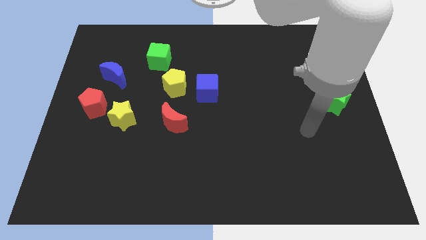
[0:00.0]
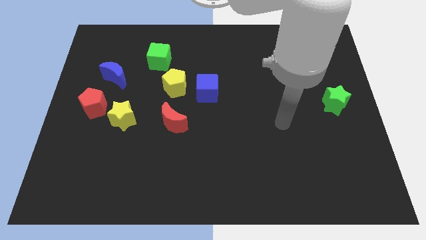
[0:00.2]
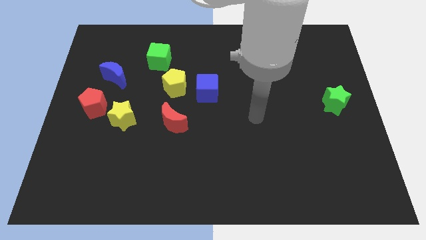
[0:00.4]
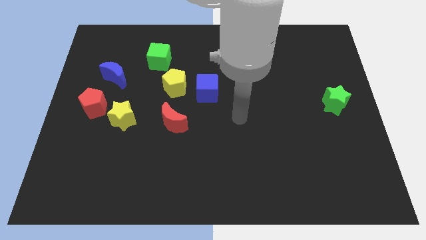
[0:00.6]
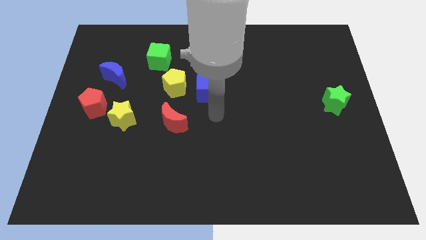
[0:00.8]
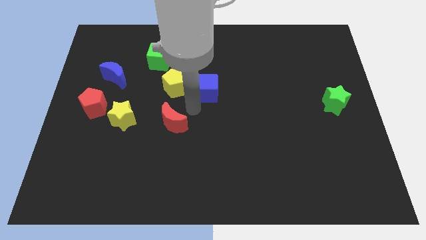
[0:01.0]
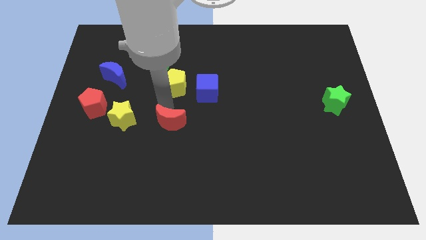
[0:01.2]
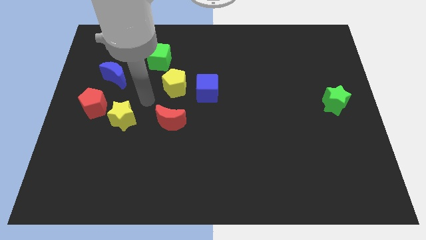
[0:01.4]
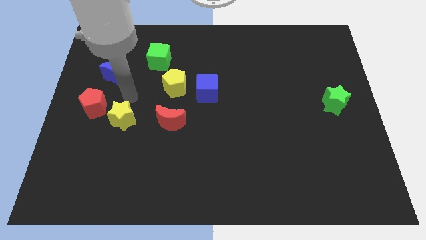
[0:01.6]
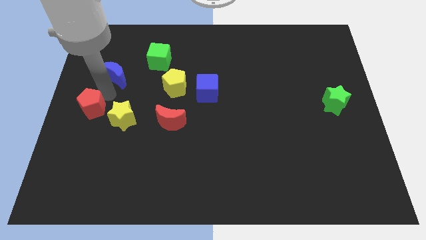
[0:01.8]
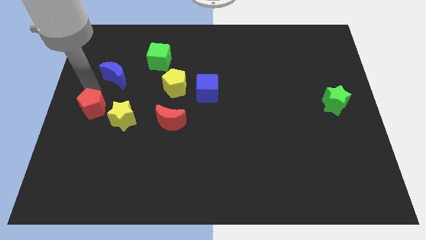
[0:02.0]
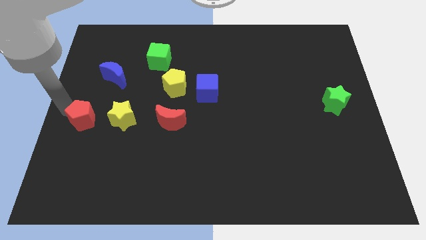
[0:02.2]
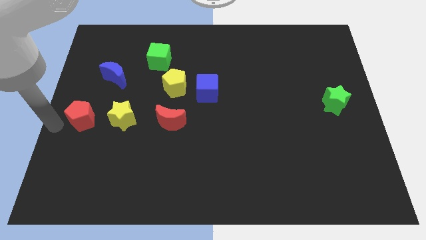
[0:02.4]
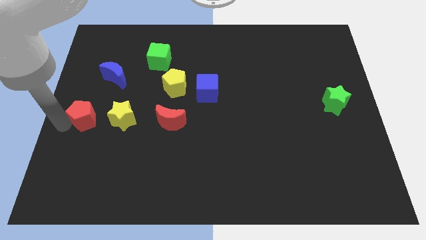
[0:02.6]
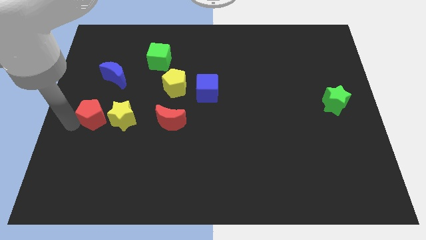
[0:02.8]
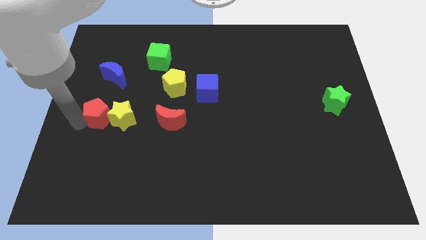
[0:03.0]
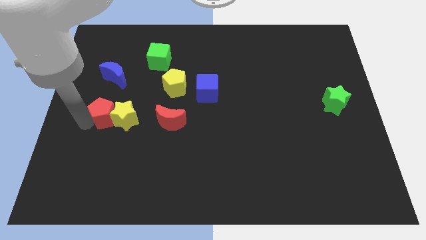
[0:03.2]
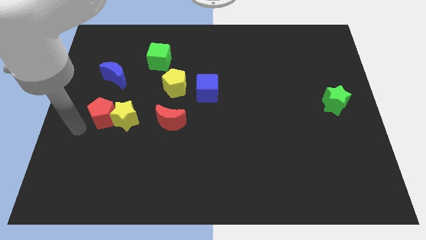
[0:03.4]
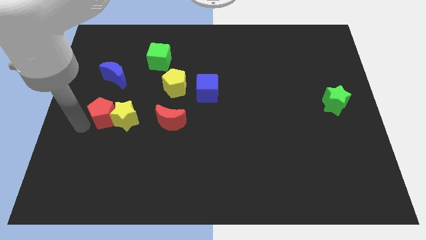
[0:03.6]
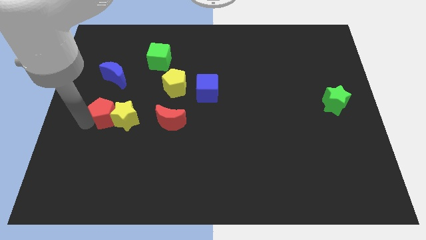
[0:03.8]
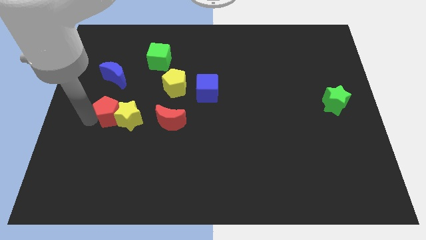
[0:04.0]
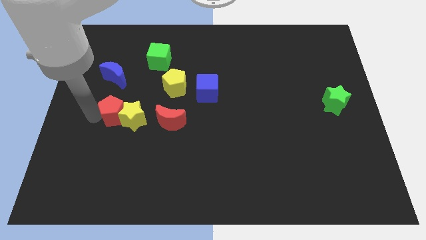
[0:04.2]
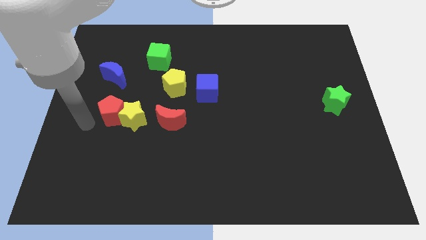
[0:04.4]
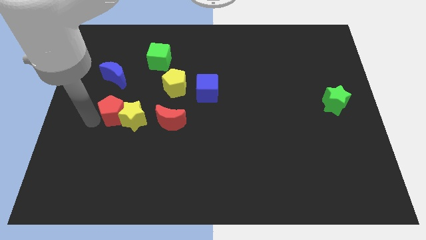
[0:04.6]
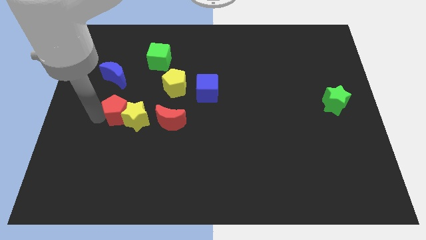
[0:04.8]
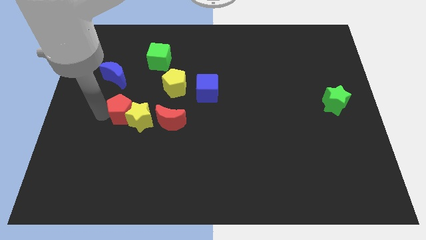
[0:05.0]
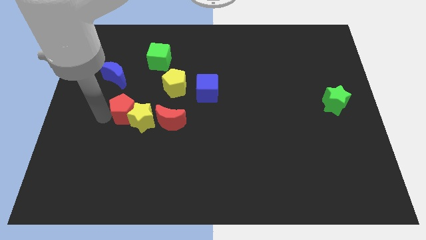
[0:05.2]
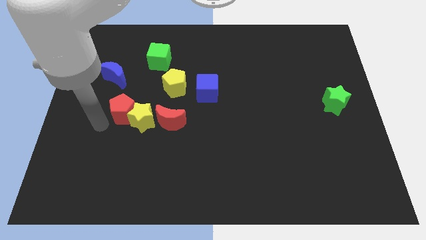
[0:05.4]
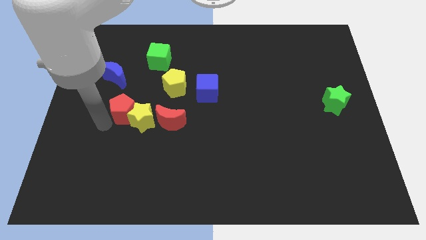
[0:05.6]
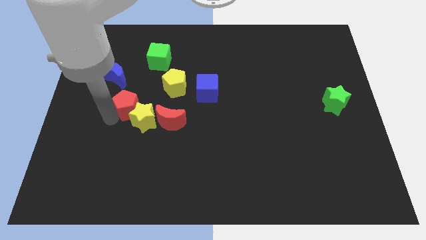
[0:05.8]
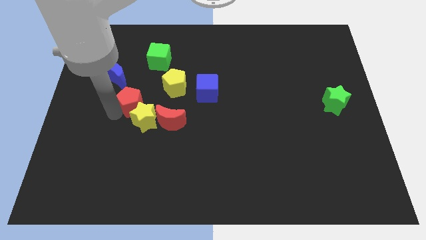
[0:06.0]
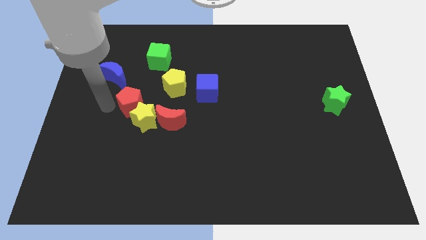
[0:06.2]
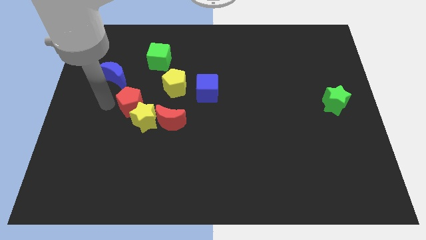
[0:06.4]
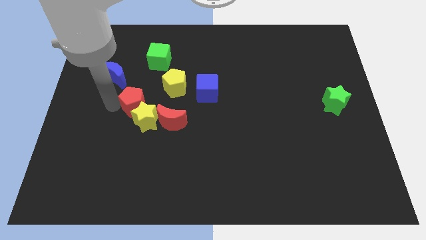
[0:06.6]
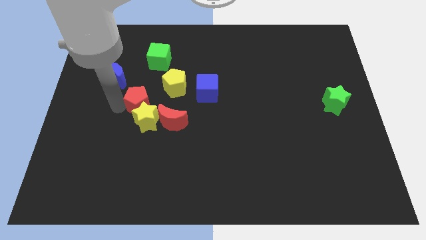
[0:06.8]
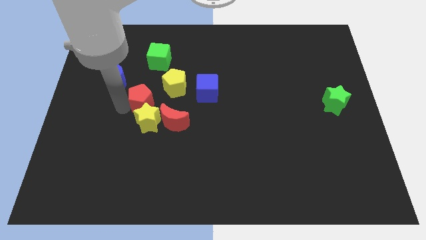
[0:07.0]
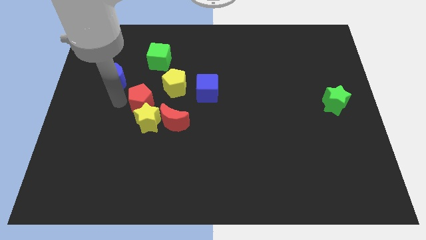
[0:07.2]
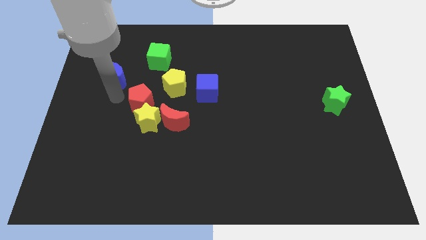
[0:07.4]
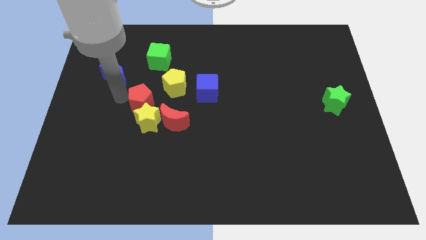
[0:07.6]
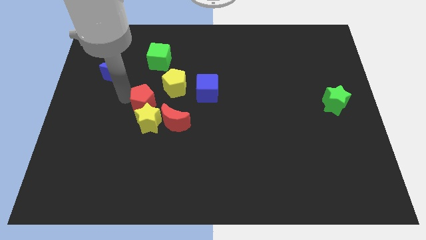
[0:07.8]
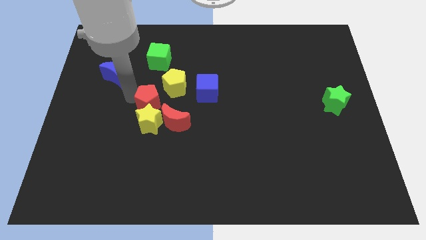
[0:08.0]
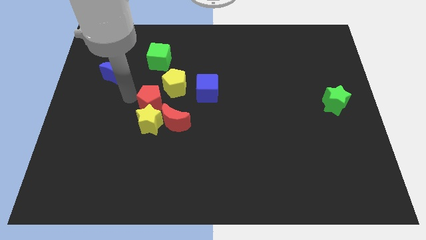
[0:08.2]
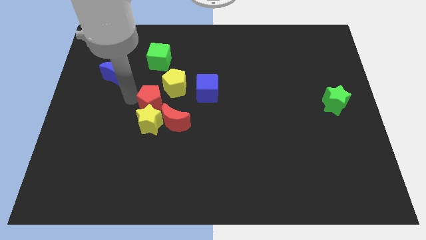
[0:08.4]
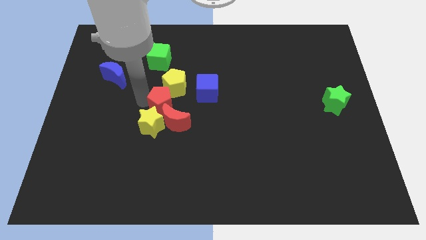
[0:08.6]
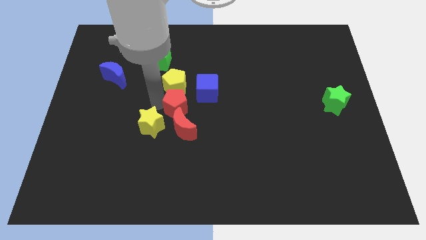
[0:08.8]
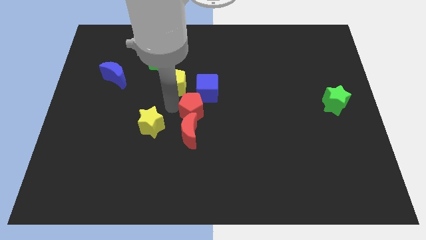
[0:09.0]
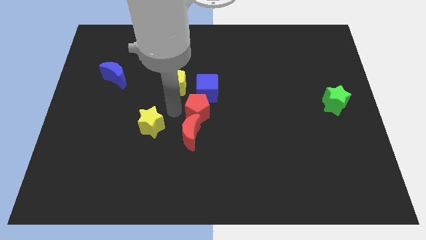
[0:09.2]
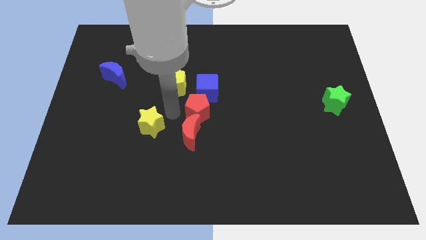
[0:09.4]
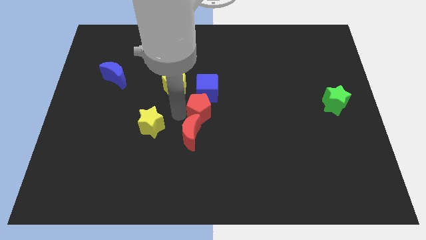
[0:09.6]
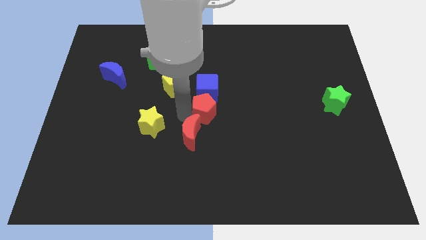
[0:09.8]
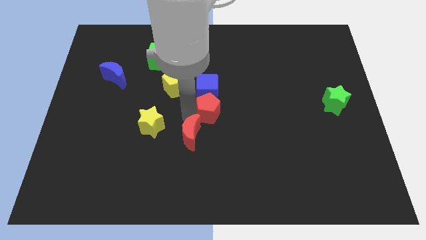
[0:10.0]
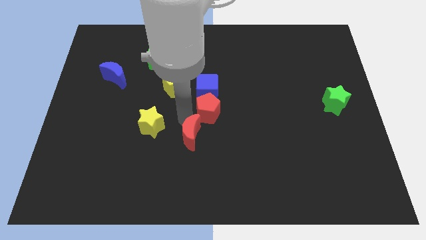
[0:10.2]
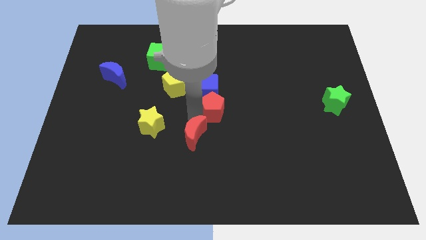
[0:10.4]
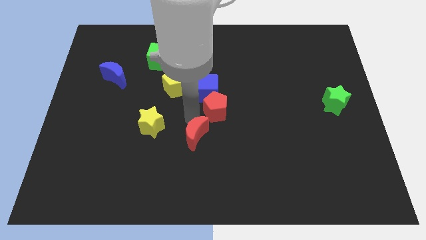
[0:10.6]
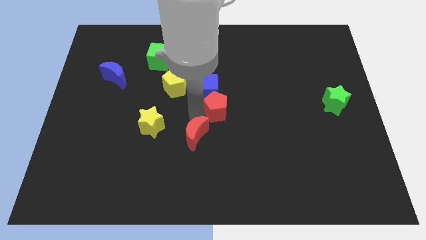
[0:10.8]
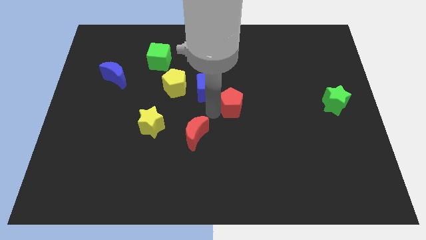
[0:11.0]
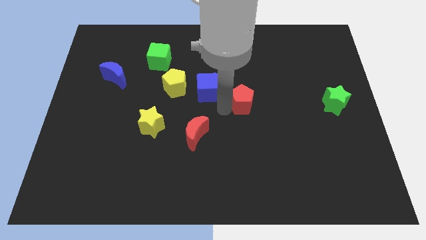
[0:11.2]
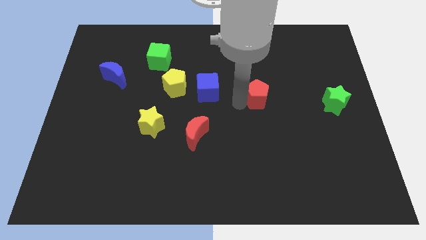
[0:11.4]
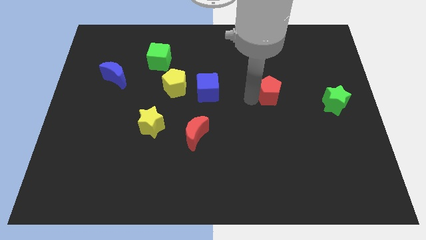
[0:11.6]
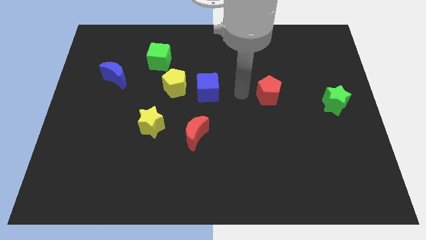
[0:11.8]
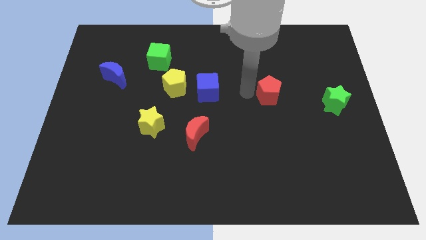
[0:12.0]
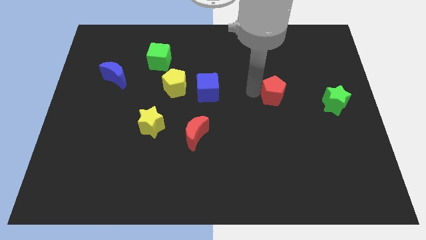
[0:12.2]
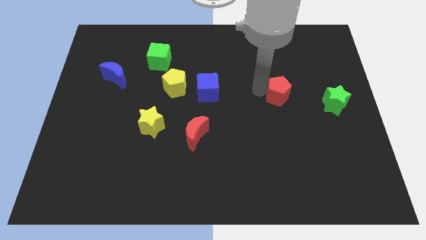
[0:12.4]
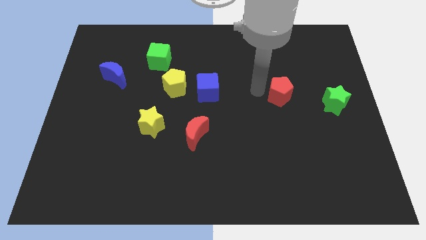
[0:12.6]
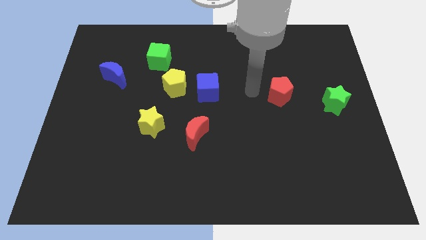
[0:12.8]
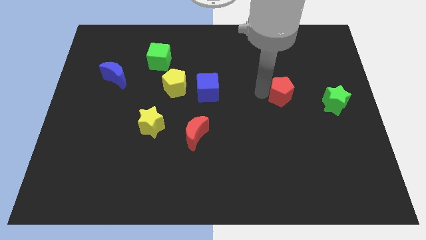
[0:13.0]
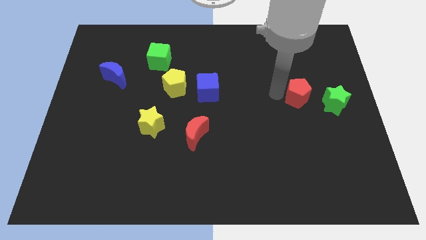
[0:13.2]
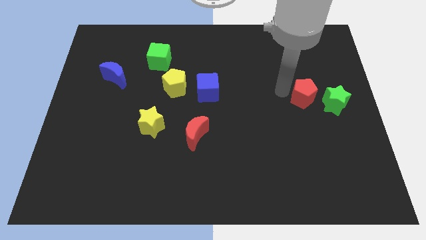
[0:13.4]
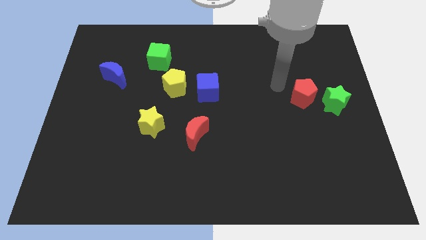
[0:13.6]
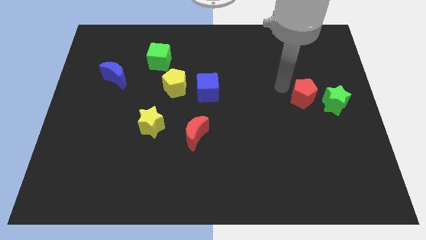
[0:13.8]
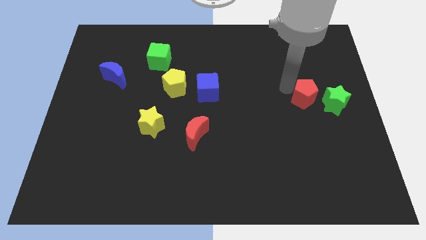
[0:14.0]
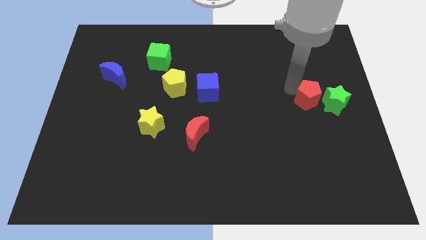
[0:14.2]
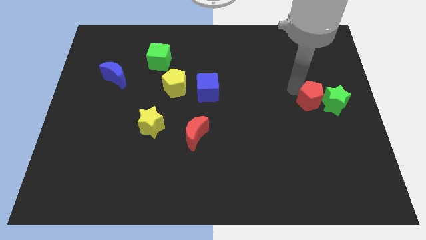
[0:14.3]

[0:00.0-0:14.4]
push the red pentagon next to the green star
